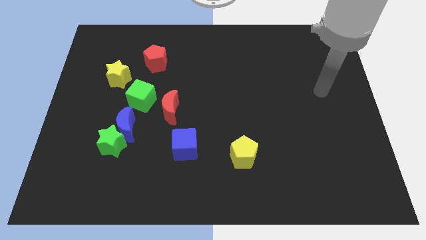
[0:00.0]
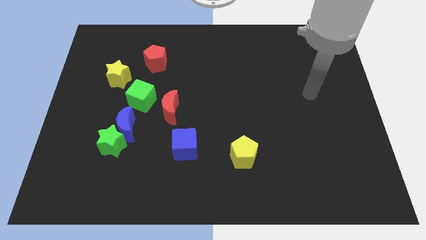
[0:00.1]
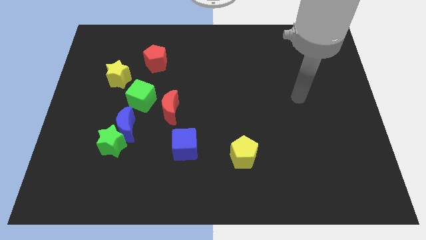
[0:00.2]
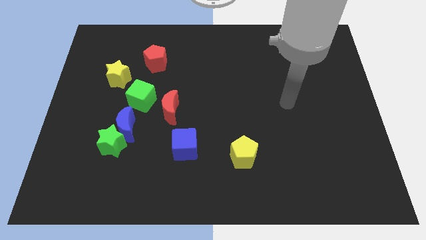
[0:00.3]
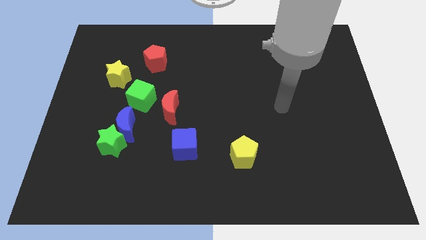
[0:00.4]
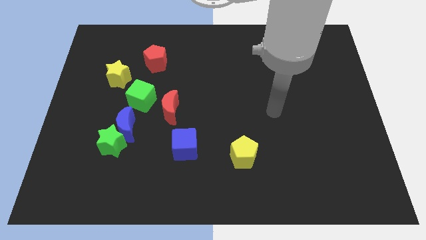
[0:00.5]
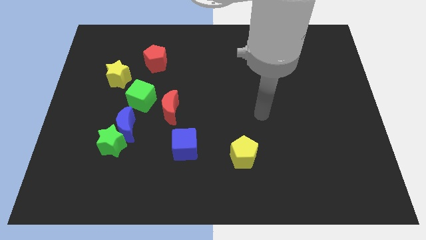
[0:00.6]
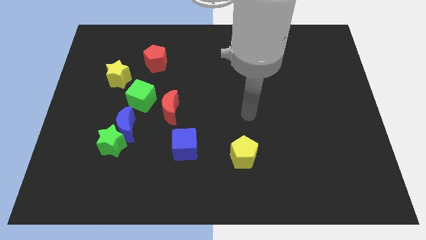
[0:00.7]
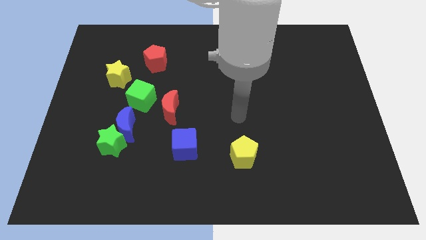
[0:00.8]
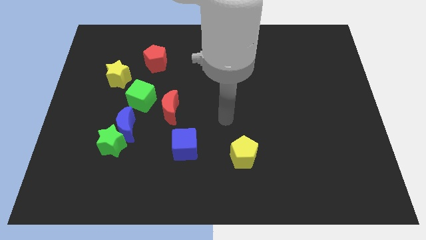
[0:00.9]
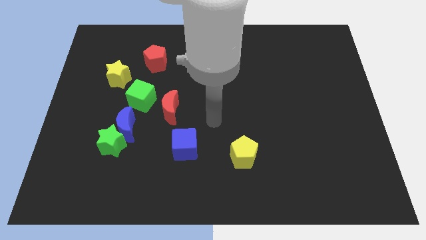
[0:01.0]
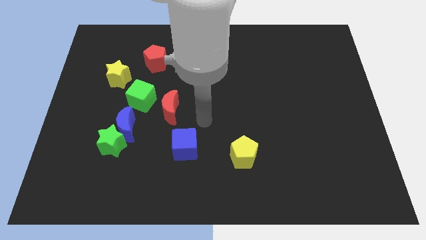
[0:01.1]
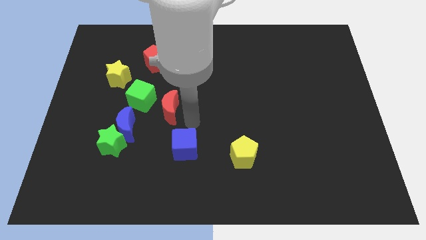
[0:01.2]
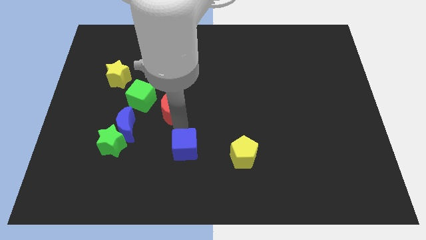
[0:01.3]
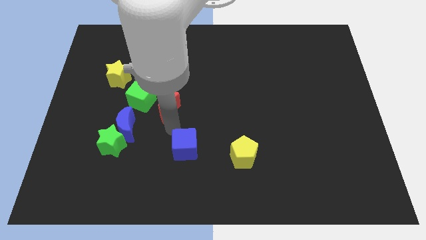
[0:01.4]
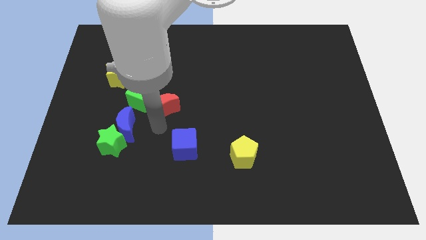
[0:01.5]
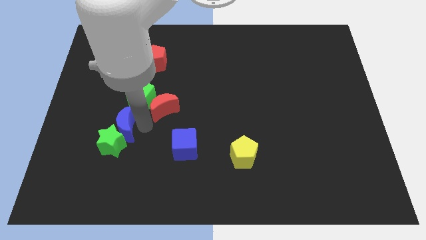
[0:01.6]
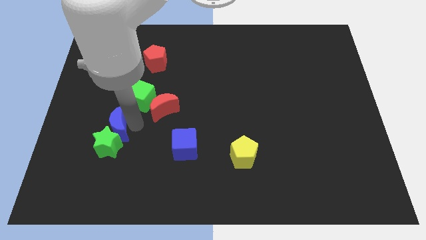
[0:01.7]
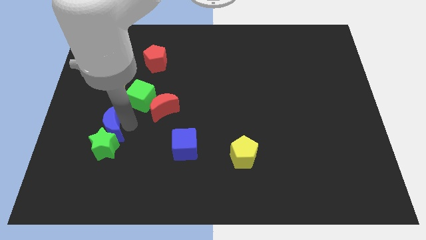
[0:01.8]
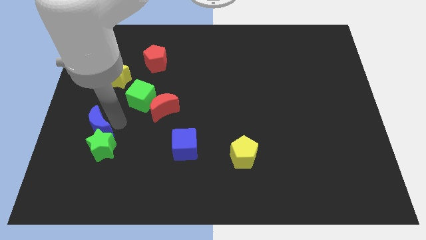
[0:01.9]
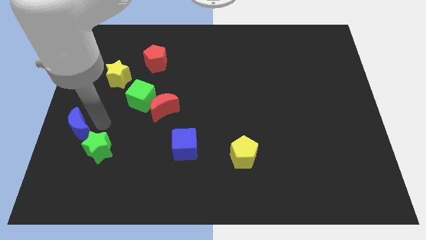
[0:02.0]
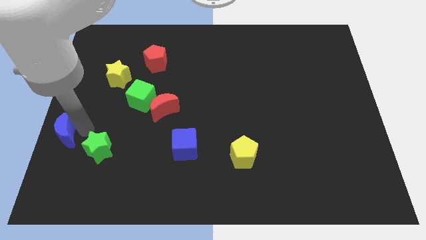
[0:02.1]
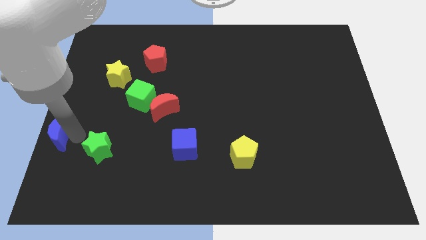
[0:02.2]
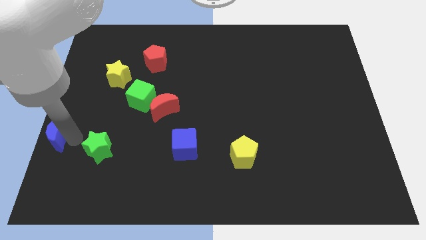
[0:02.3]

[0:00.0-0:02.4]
move the green star away from the blue moon

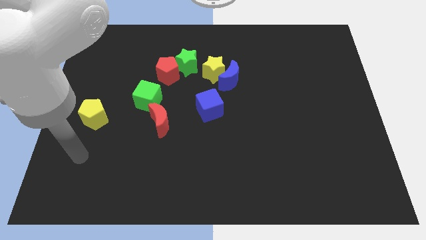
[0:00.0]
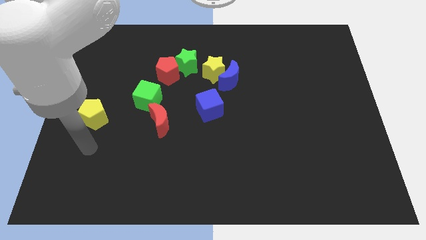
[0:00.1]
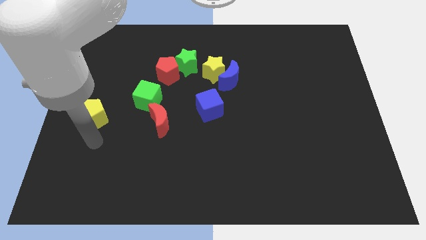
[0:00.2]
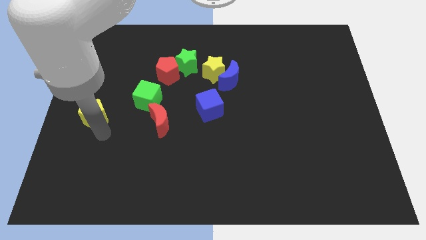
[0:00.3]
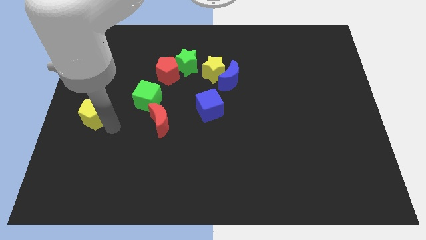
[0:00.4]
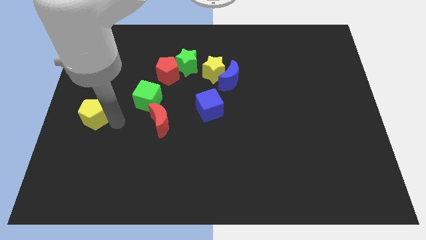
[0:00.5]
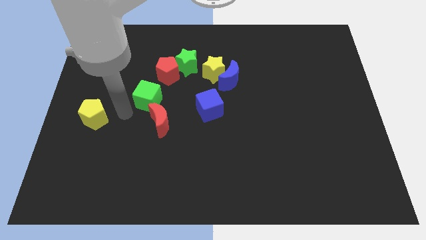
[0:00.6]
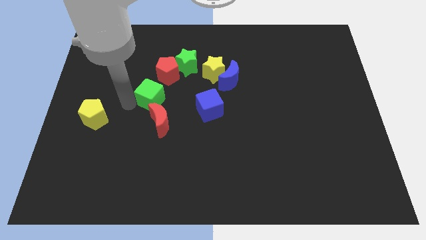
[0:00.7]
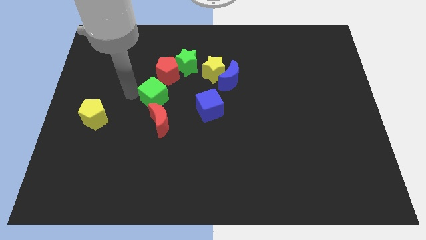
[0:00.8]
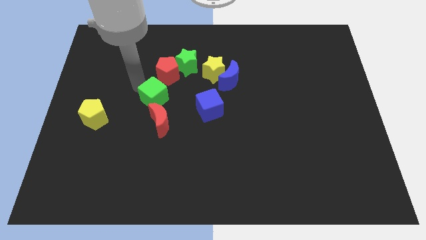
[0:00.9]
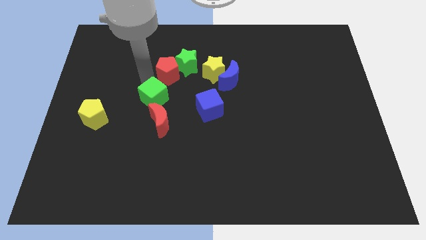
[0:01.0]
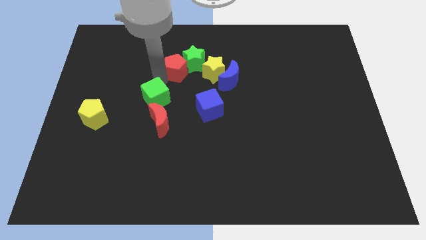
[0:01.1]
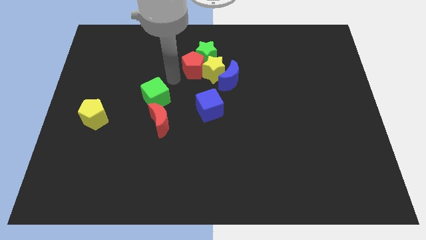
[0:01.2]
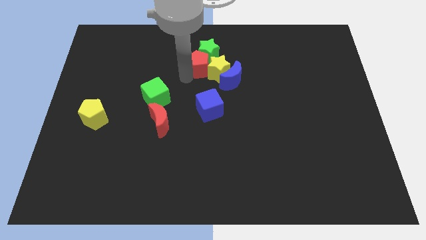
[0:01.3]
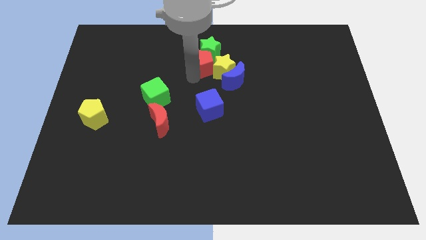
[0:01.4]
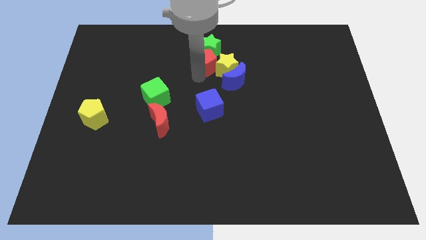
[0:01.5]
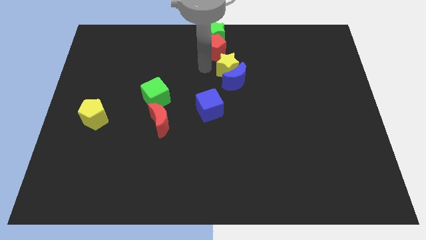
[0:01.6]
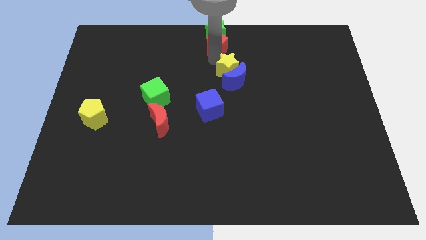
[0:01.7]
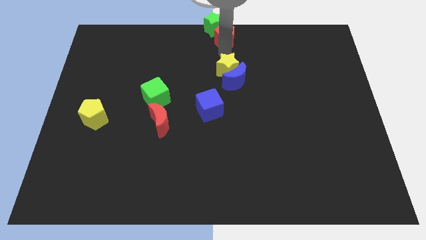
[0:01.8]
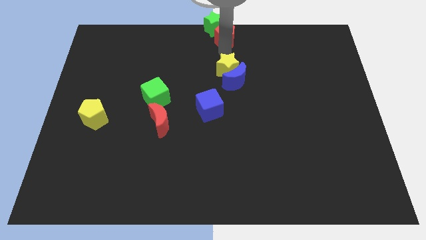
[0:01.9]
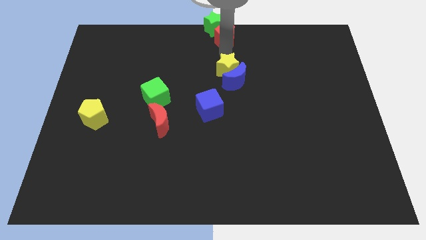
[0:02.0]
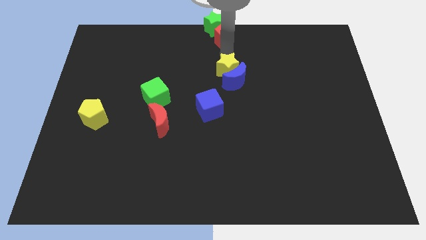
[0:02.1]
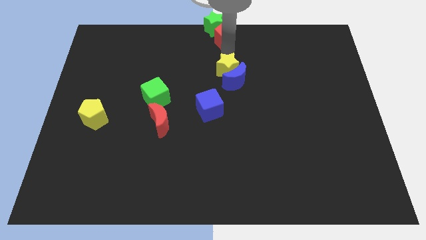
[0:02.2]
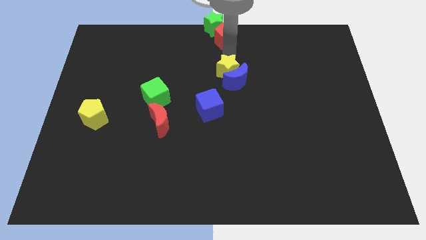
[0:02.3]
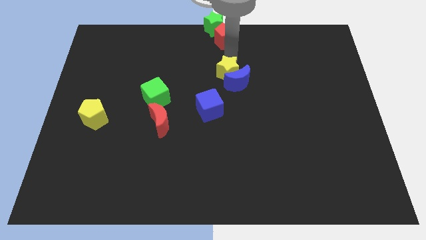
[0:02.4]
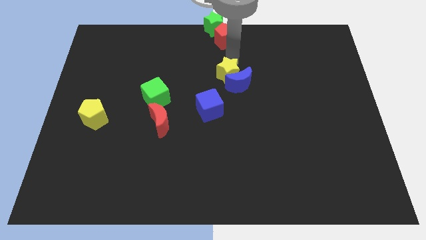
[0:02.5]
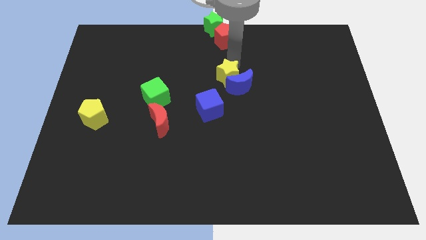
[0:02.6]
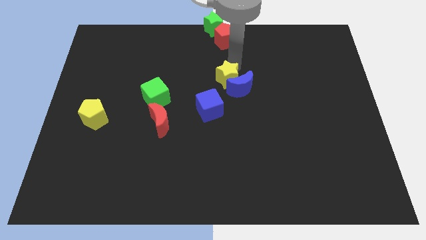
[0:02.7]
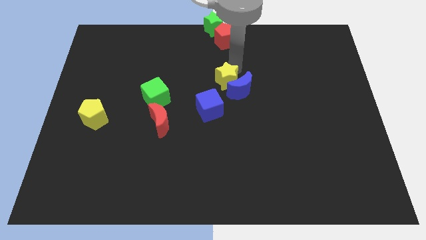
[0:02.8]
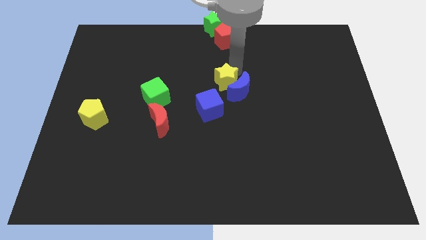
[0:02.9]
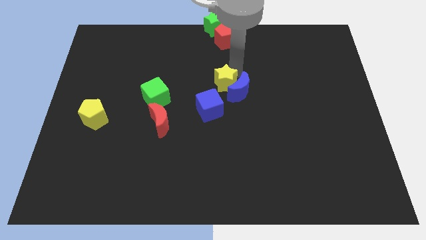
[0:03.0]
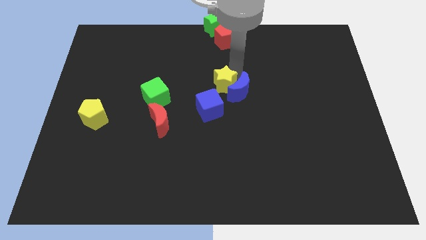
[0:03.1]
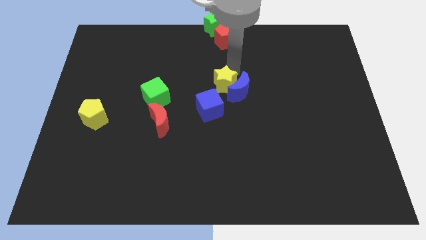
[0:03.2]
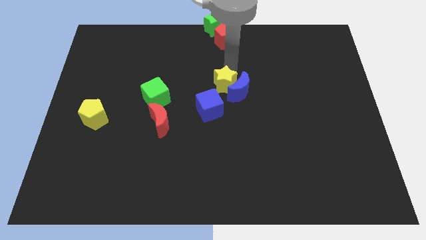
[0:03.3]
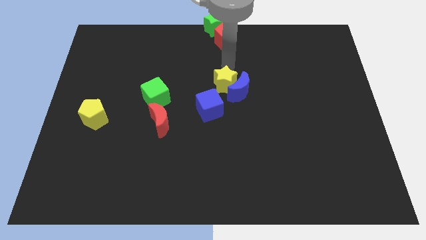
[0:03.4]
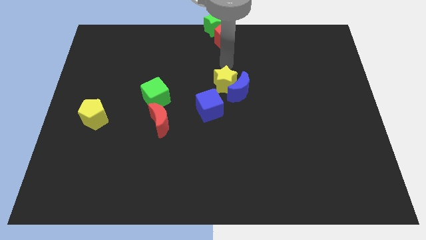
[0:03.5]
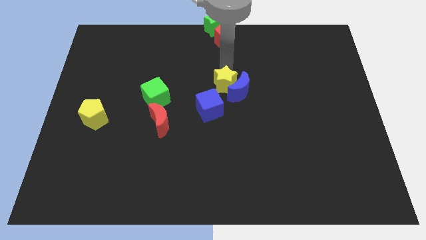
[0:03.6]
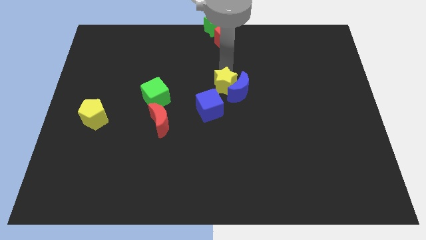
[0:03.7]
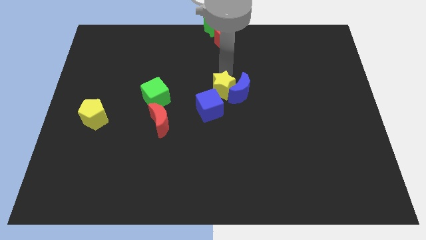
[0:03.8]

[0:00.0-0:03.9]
move the yellow star away from the blue moon and green star

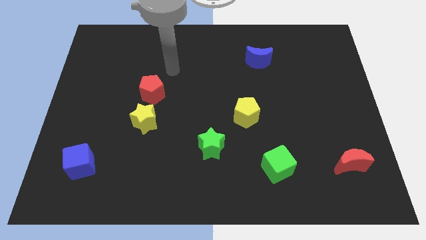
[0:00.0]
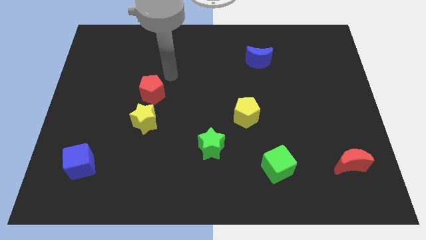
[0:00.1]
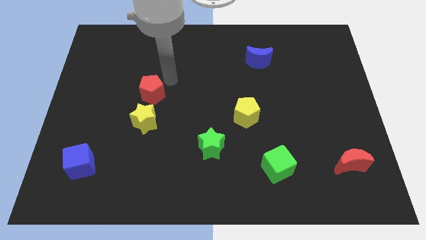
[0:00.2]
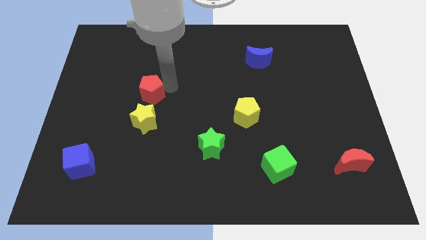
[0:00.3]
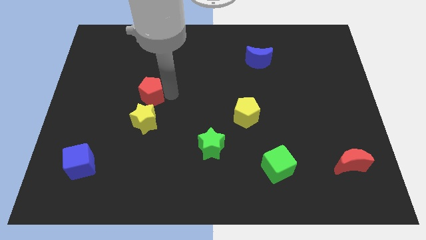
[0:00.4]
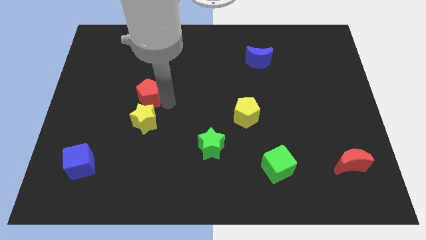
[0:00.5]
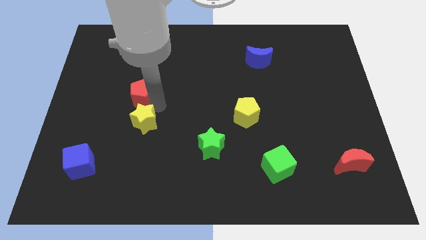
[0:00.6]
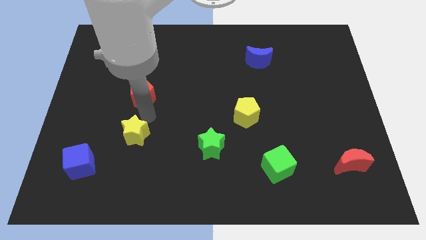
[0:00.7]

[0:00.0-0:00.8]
separate the red pentagon from the yellow star

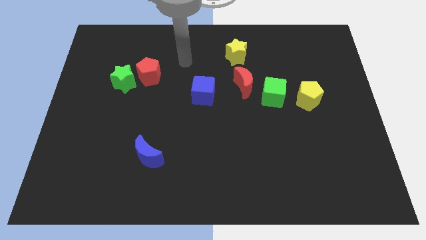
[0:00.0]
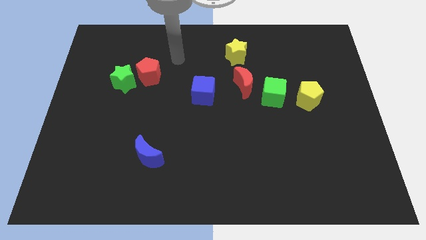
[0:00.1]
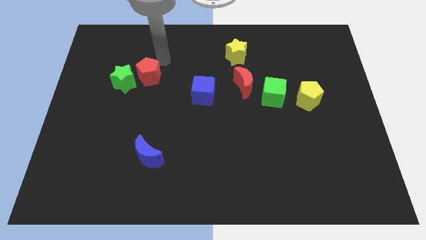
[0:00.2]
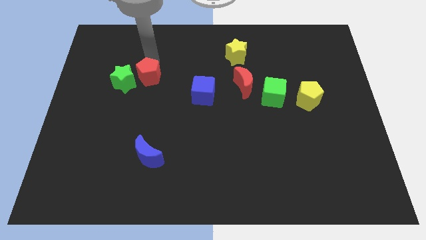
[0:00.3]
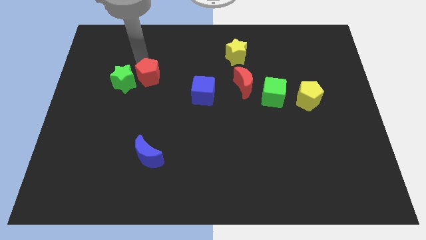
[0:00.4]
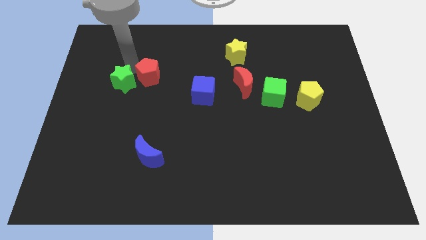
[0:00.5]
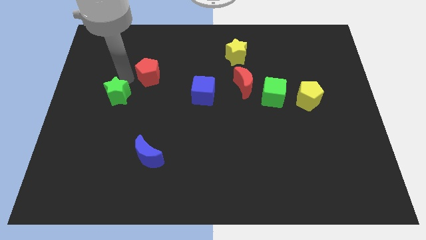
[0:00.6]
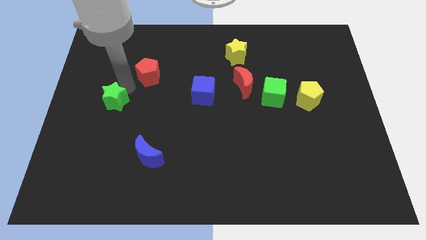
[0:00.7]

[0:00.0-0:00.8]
separate the red pentagon from the green star

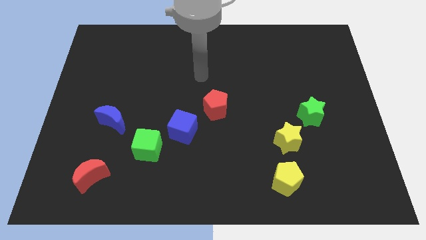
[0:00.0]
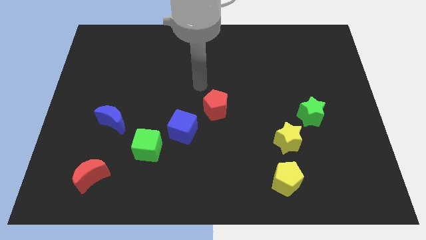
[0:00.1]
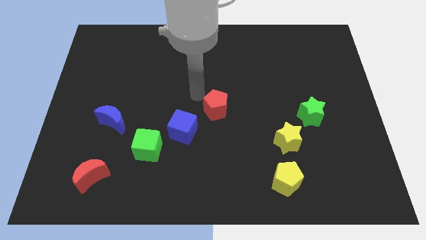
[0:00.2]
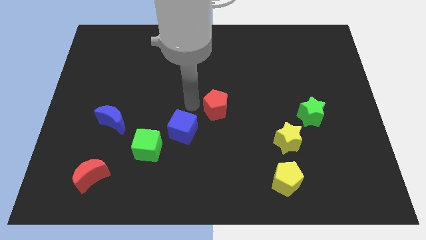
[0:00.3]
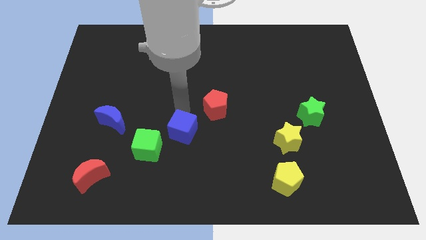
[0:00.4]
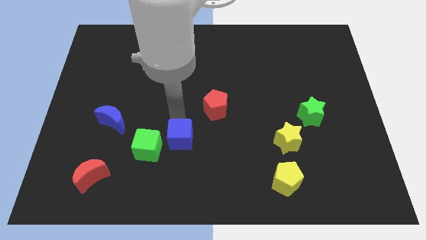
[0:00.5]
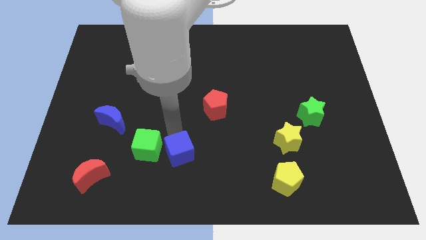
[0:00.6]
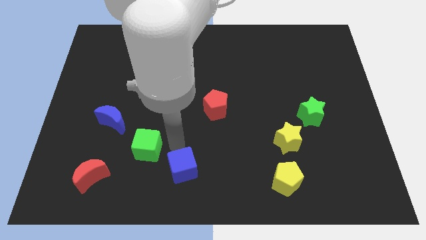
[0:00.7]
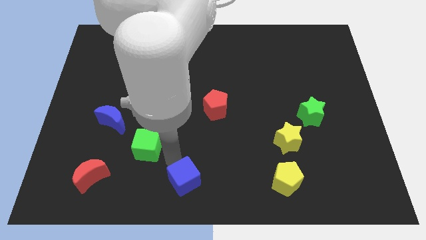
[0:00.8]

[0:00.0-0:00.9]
move the green cube away from the blue cube

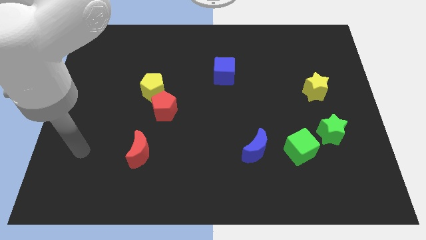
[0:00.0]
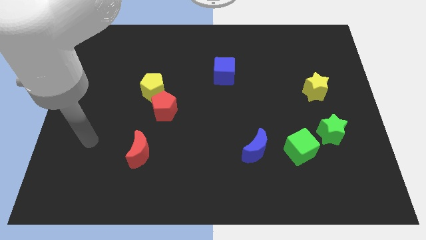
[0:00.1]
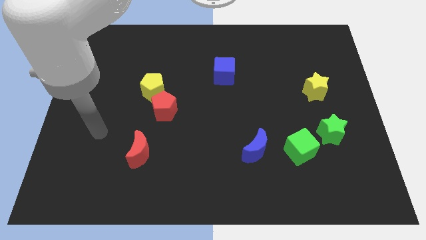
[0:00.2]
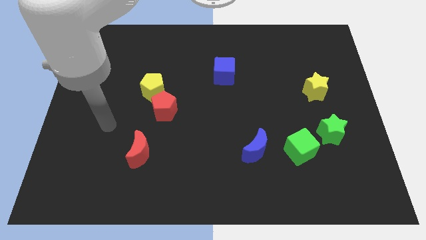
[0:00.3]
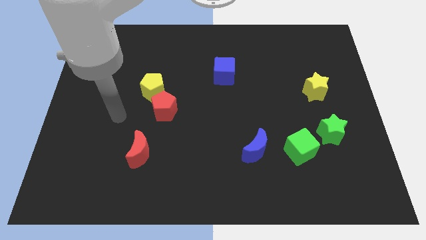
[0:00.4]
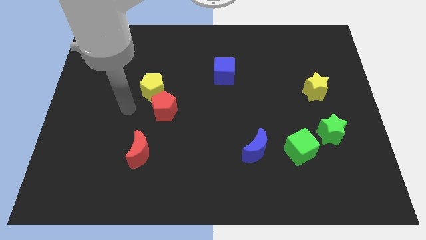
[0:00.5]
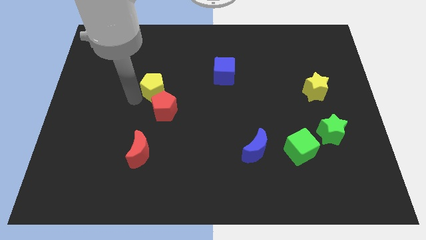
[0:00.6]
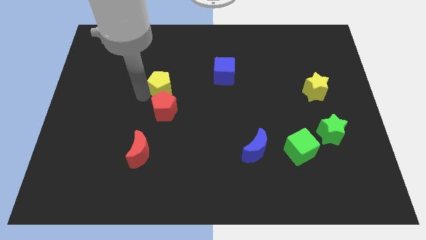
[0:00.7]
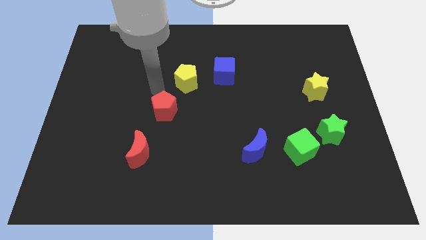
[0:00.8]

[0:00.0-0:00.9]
move the red pentagon away from the yellow pentagon
